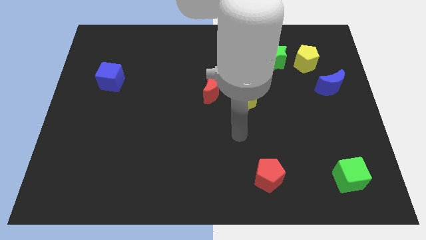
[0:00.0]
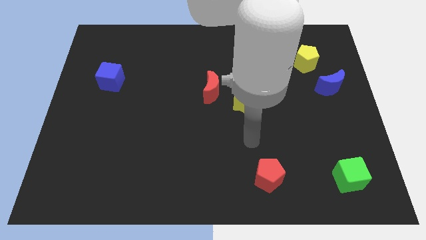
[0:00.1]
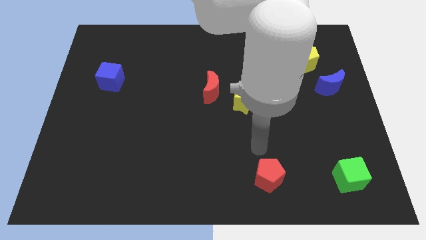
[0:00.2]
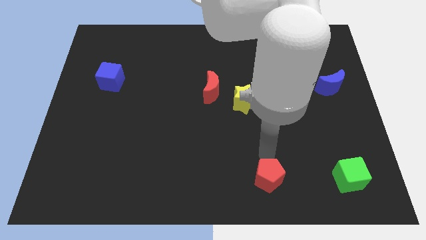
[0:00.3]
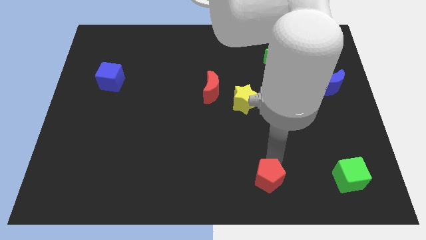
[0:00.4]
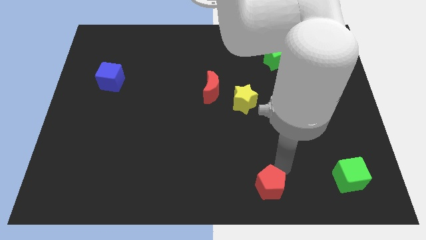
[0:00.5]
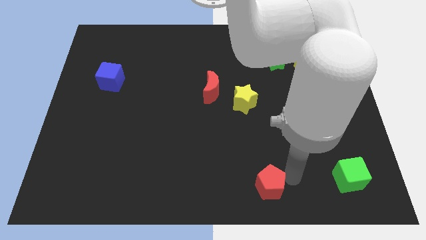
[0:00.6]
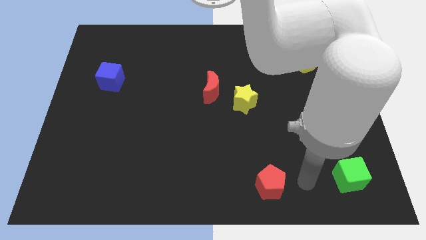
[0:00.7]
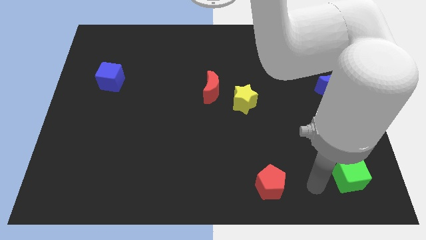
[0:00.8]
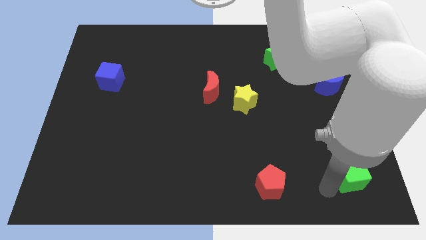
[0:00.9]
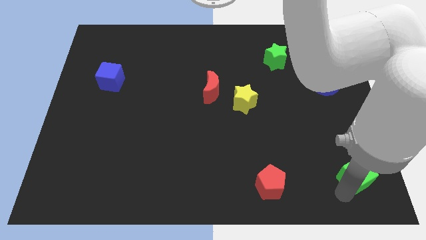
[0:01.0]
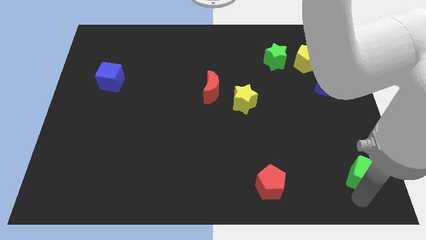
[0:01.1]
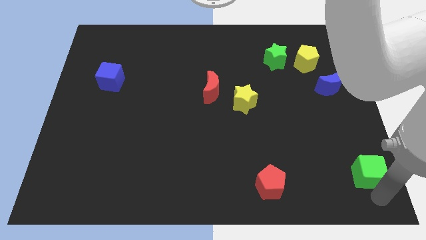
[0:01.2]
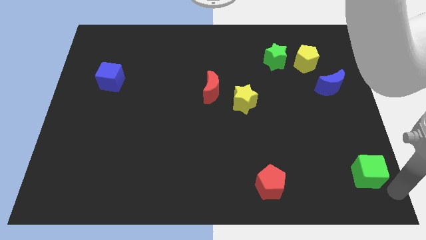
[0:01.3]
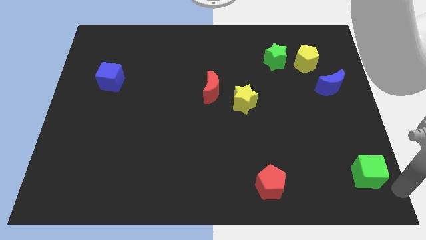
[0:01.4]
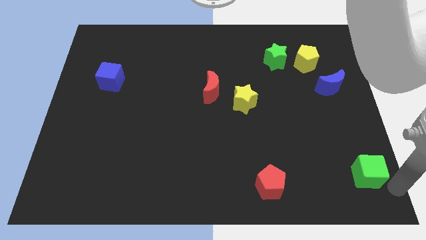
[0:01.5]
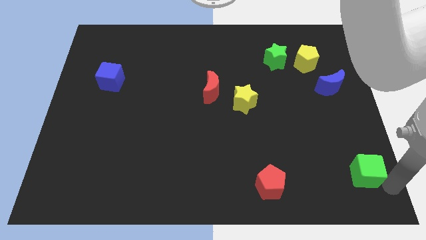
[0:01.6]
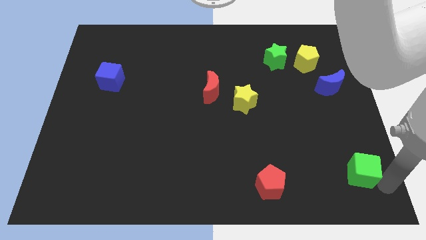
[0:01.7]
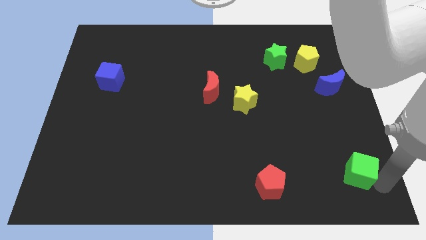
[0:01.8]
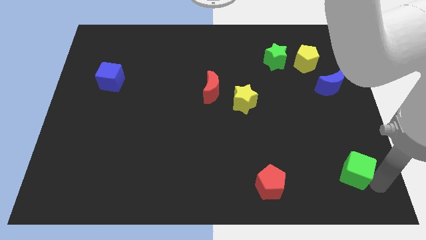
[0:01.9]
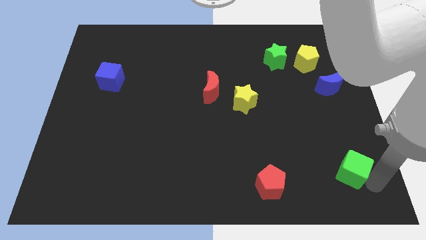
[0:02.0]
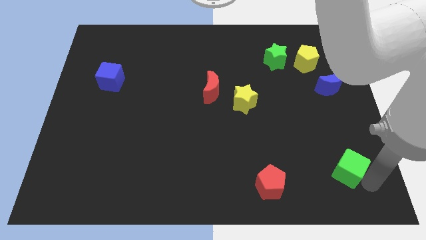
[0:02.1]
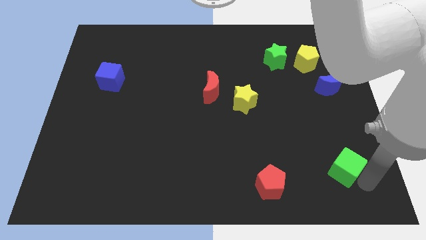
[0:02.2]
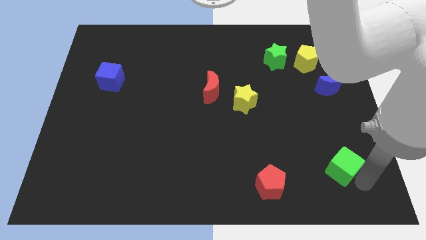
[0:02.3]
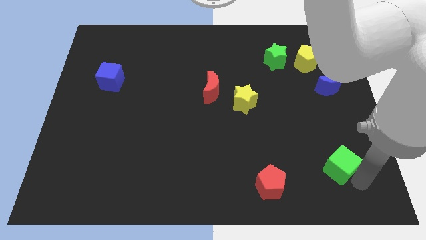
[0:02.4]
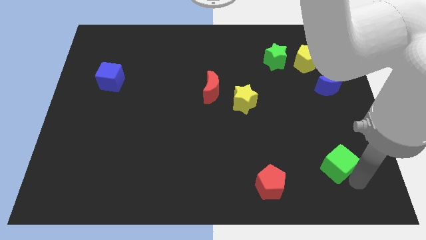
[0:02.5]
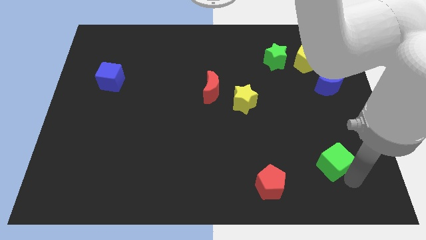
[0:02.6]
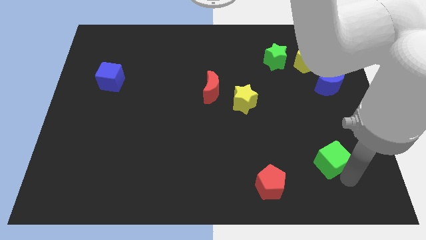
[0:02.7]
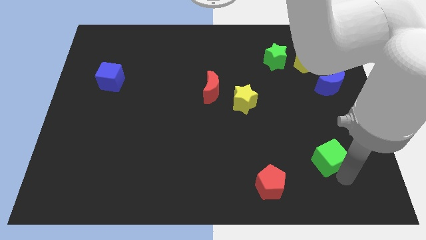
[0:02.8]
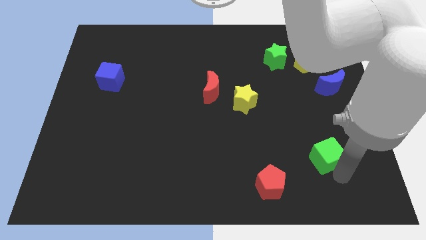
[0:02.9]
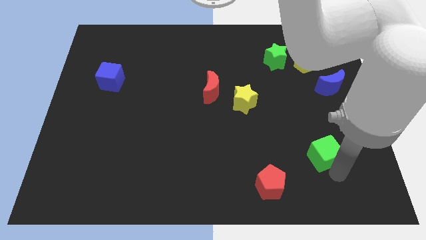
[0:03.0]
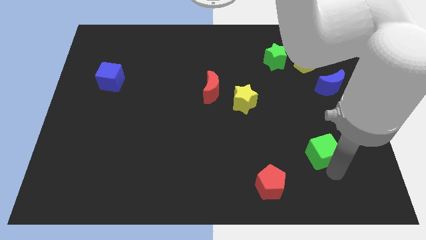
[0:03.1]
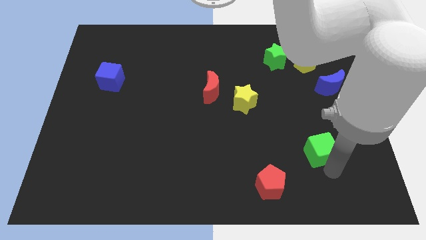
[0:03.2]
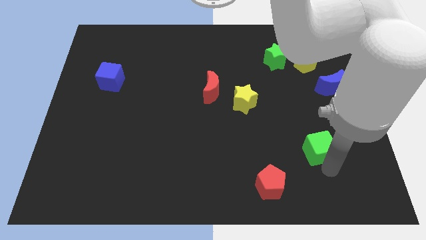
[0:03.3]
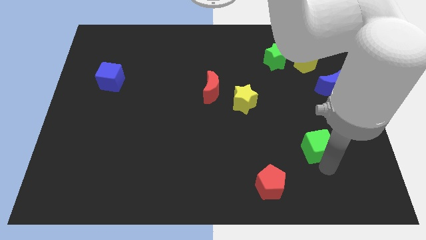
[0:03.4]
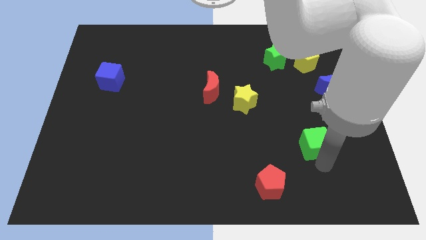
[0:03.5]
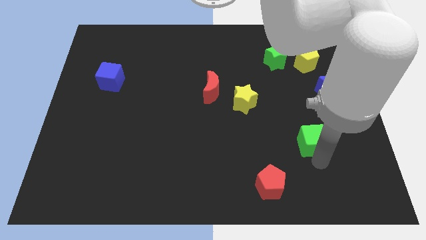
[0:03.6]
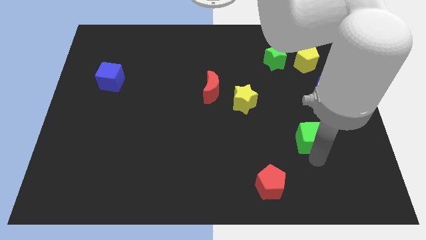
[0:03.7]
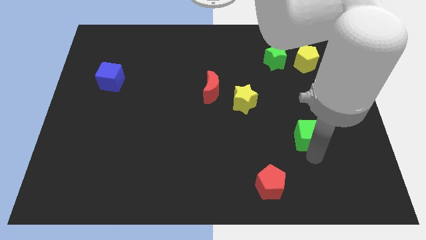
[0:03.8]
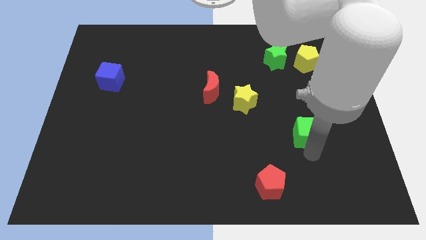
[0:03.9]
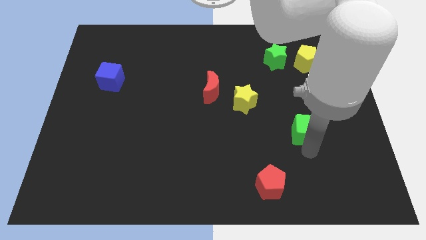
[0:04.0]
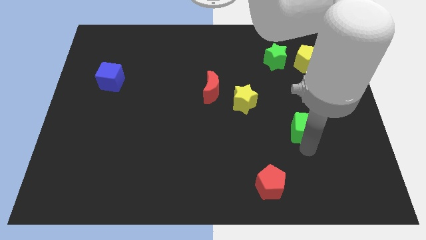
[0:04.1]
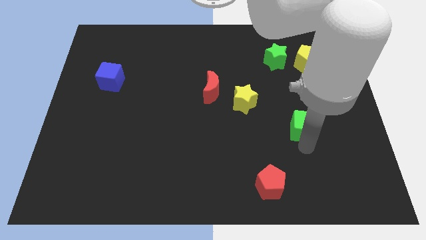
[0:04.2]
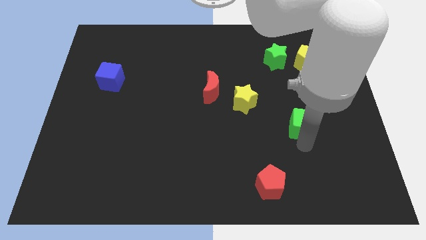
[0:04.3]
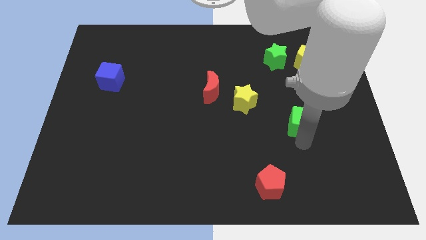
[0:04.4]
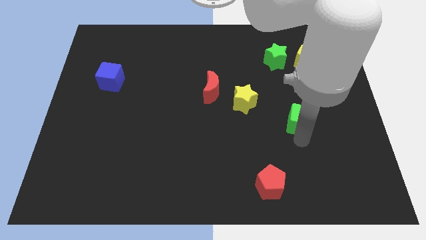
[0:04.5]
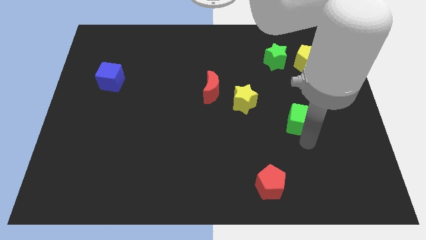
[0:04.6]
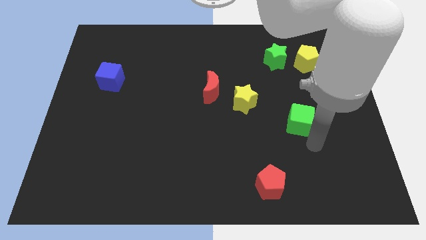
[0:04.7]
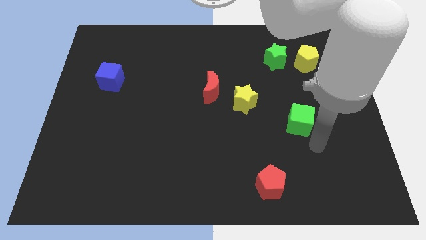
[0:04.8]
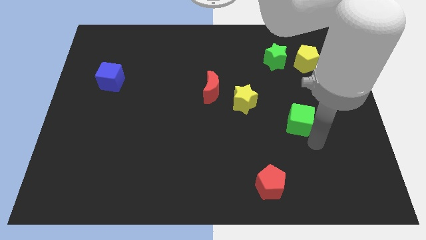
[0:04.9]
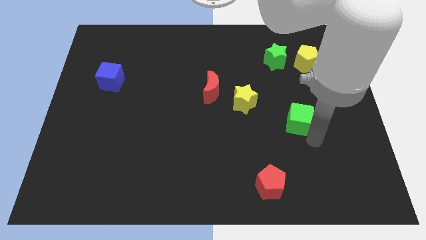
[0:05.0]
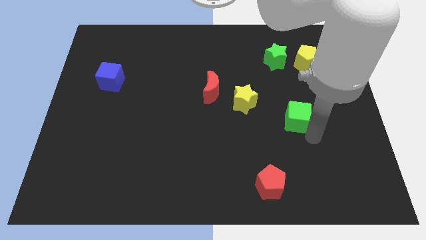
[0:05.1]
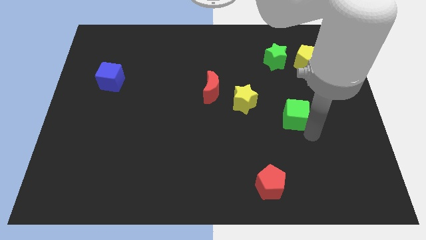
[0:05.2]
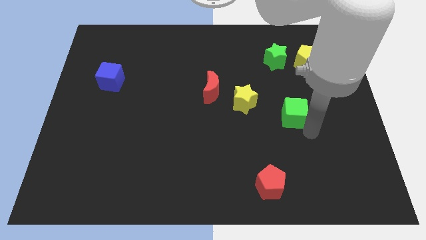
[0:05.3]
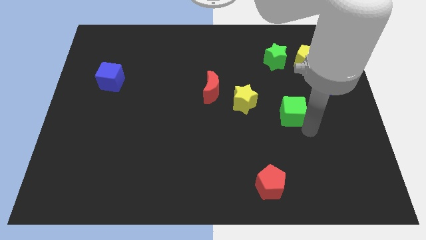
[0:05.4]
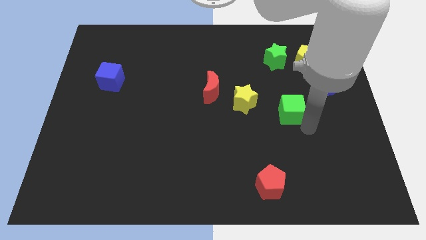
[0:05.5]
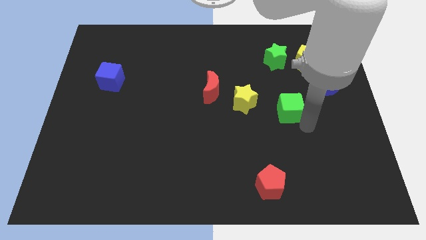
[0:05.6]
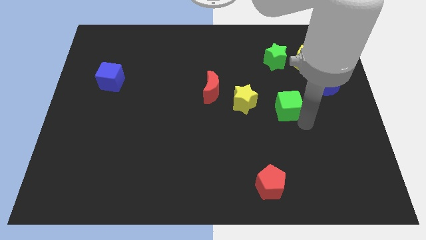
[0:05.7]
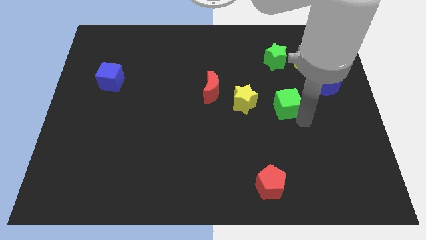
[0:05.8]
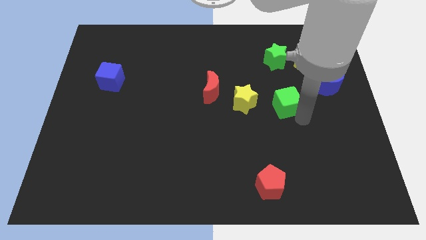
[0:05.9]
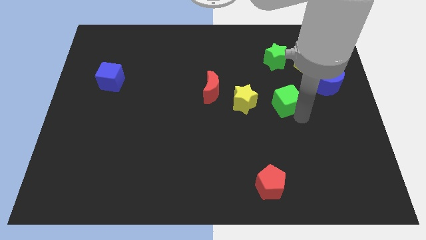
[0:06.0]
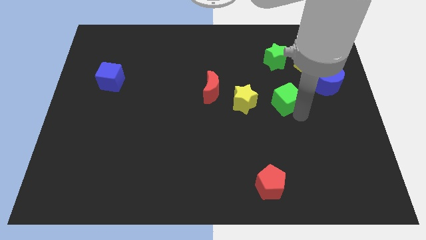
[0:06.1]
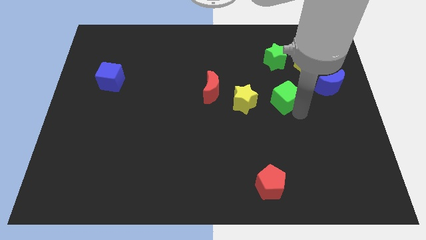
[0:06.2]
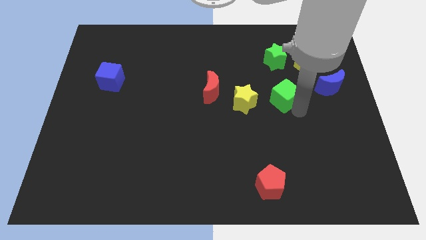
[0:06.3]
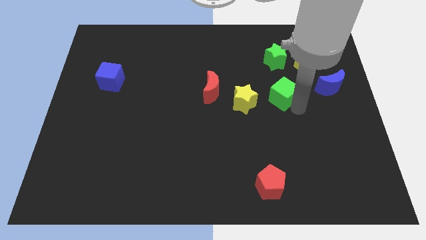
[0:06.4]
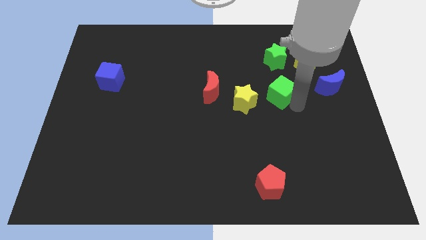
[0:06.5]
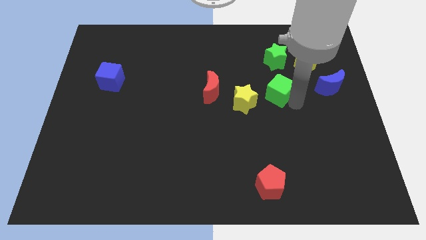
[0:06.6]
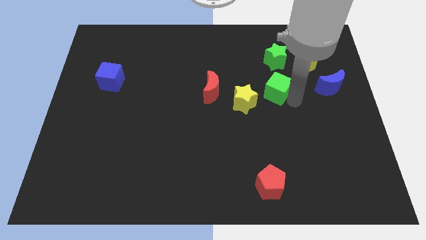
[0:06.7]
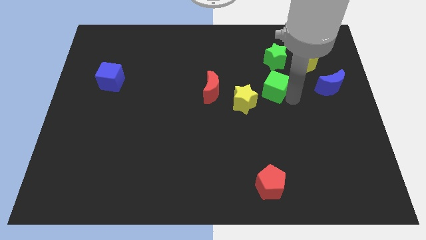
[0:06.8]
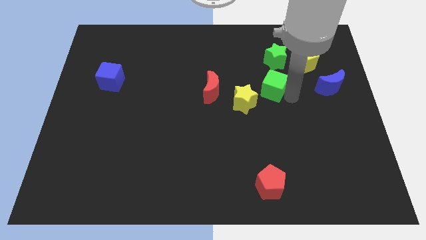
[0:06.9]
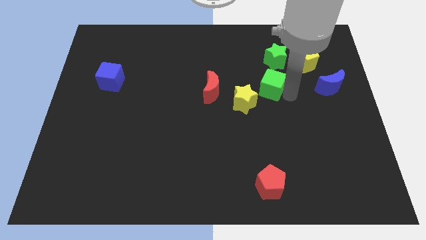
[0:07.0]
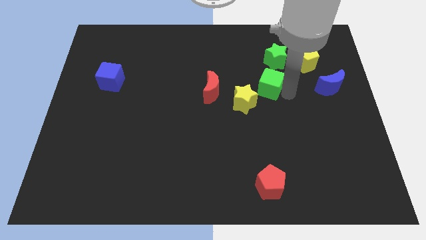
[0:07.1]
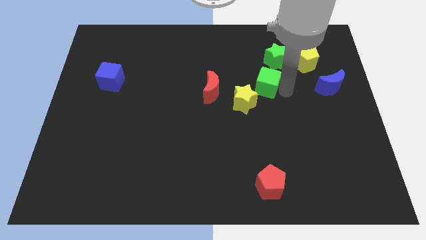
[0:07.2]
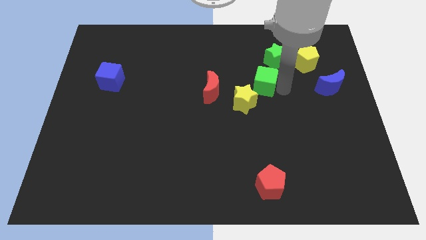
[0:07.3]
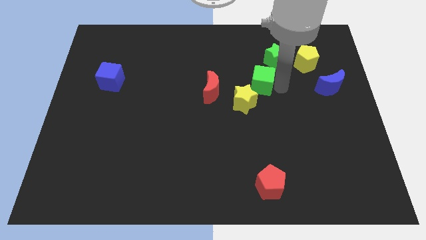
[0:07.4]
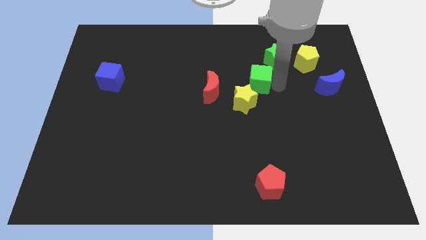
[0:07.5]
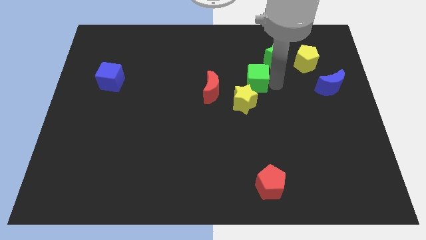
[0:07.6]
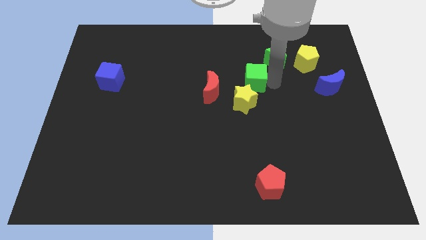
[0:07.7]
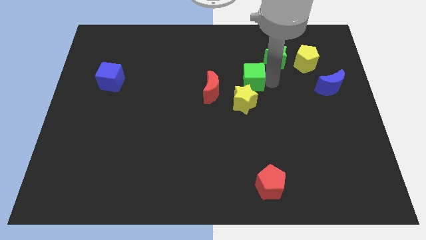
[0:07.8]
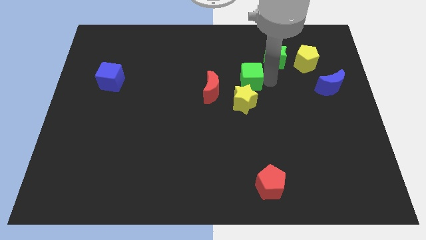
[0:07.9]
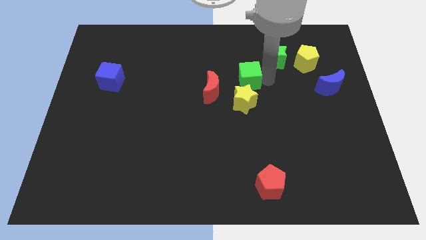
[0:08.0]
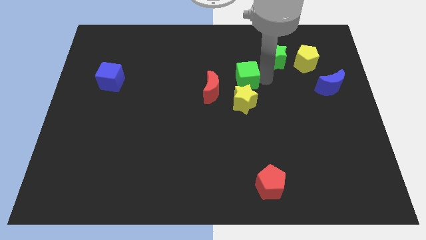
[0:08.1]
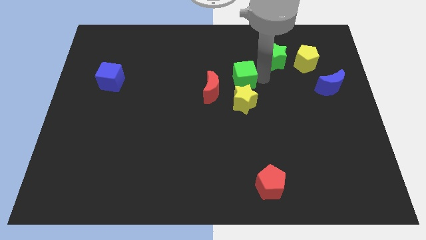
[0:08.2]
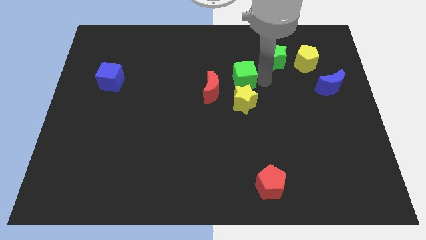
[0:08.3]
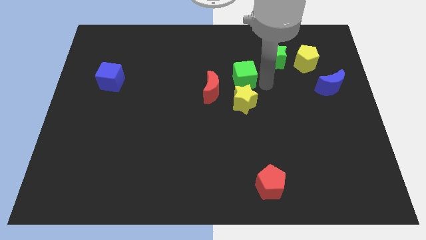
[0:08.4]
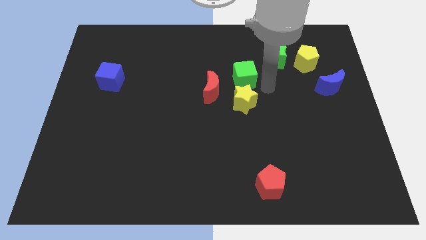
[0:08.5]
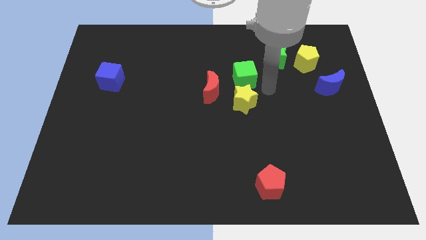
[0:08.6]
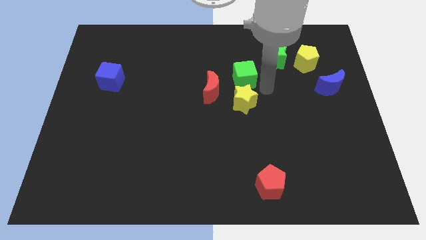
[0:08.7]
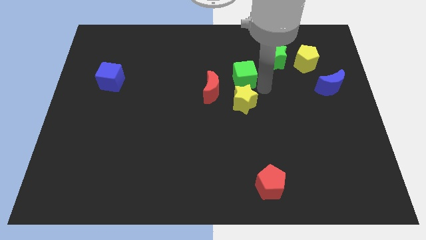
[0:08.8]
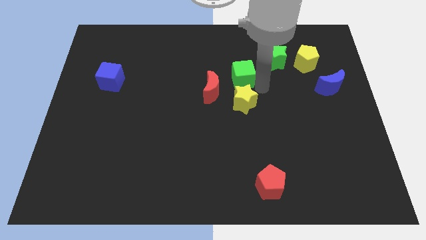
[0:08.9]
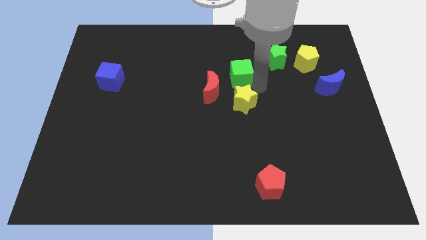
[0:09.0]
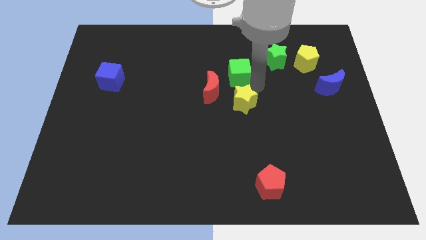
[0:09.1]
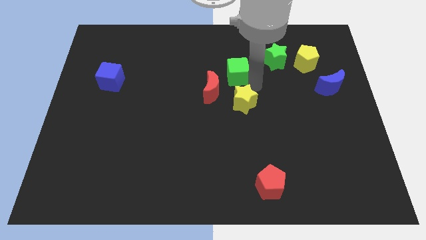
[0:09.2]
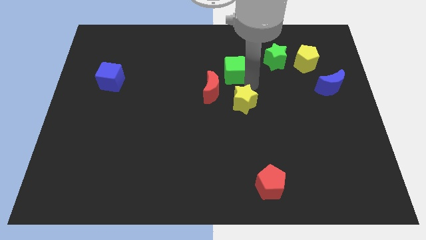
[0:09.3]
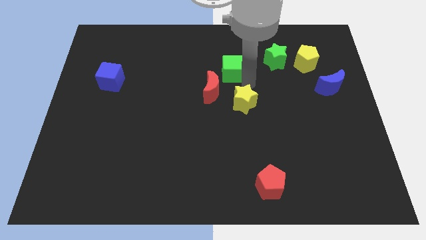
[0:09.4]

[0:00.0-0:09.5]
push the green cube to the top of the red moon
